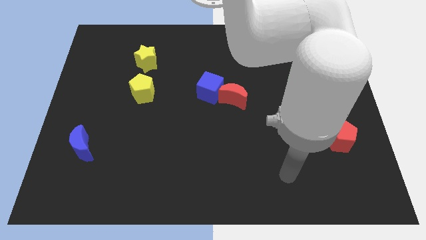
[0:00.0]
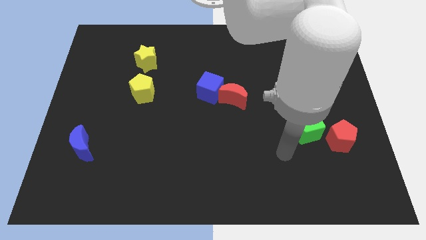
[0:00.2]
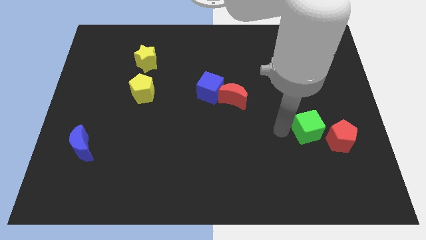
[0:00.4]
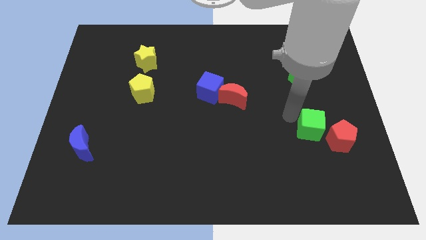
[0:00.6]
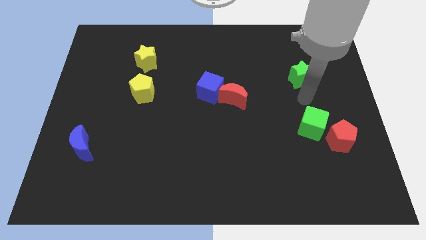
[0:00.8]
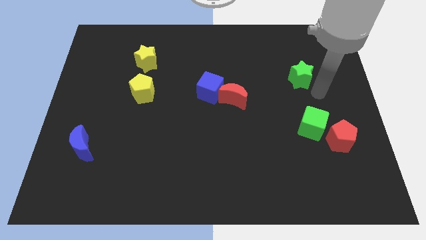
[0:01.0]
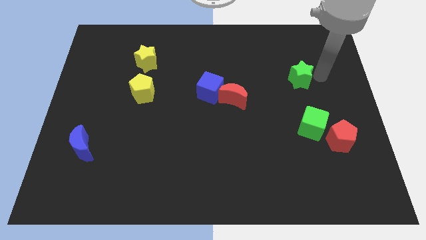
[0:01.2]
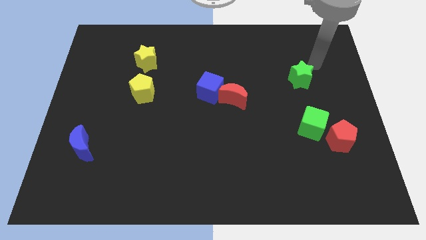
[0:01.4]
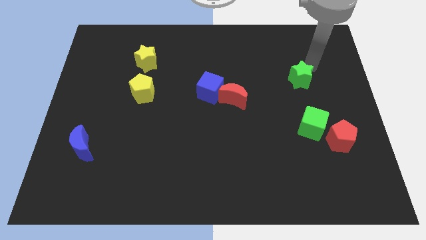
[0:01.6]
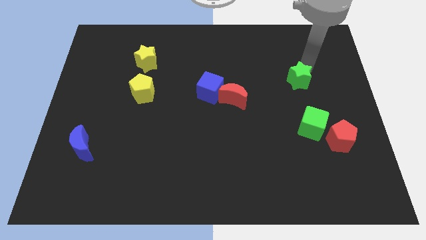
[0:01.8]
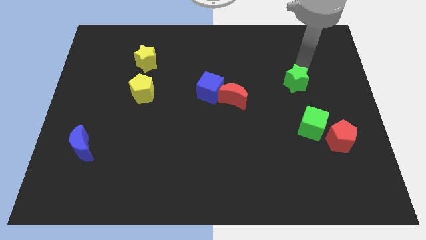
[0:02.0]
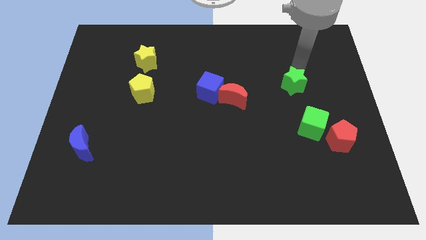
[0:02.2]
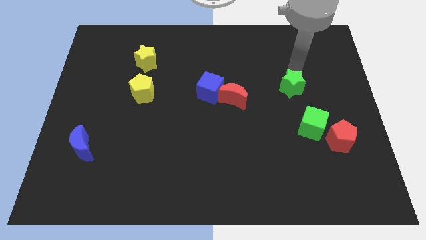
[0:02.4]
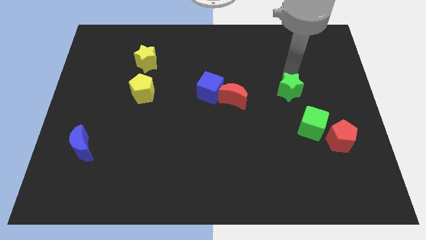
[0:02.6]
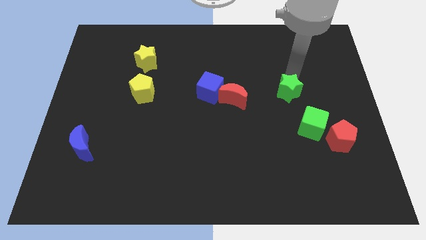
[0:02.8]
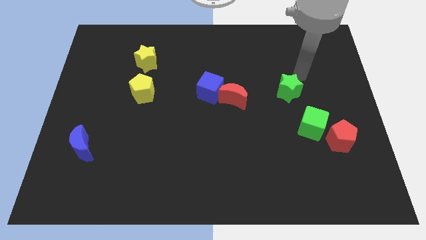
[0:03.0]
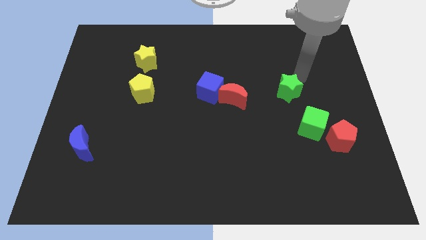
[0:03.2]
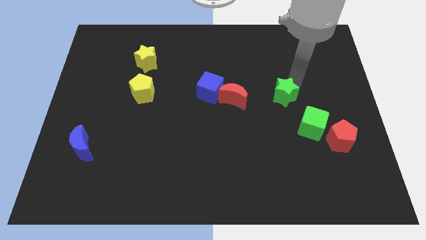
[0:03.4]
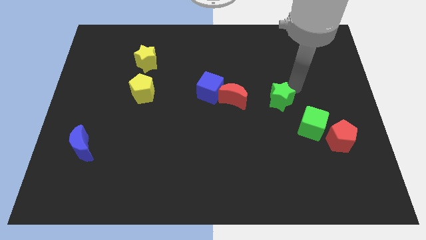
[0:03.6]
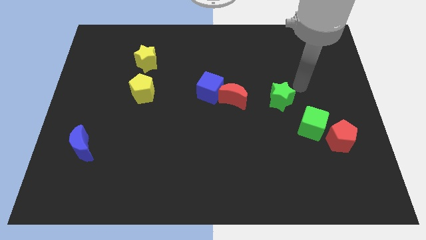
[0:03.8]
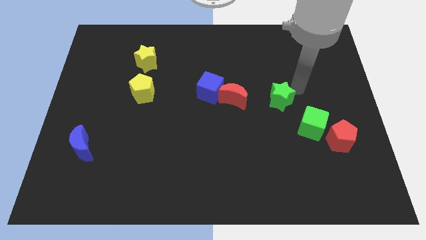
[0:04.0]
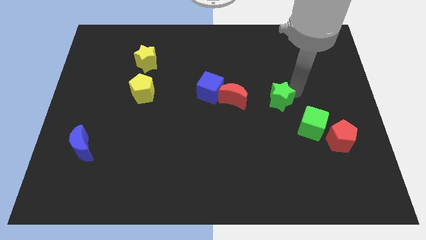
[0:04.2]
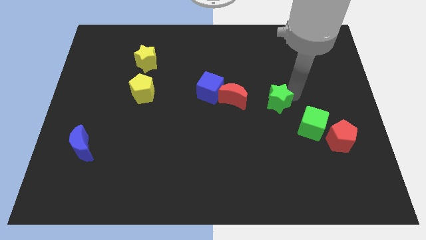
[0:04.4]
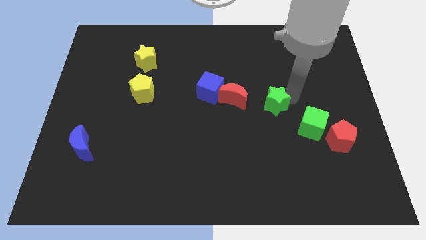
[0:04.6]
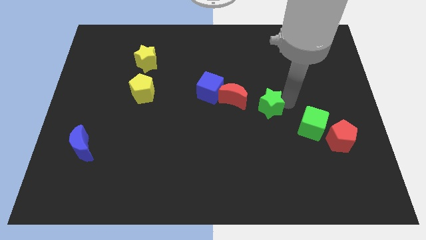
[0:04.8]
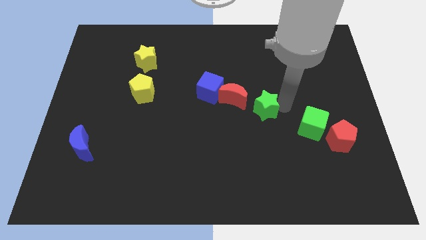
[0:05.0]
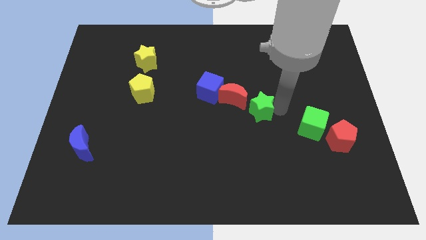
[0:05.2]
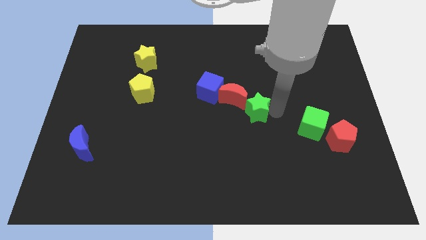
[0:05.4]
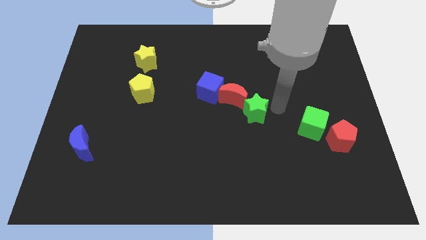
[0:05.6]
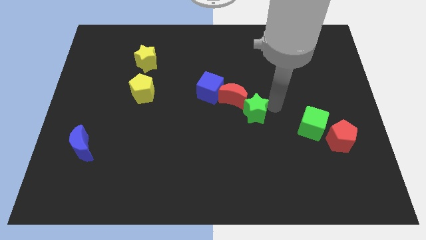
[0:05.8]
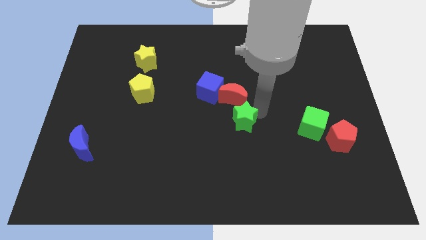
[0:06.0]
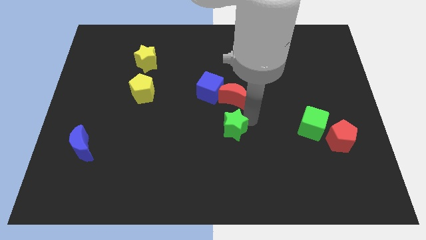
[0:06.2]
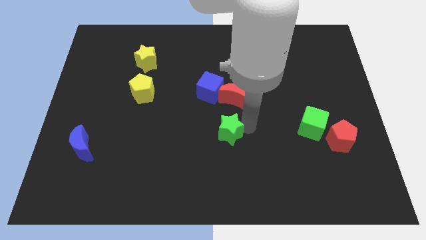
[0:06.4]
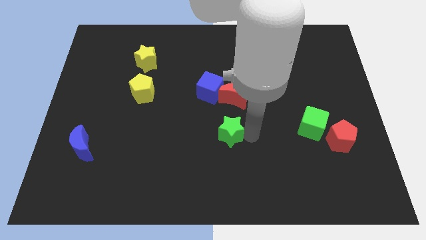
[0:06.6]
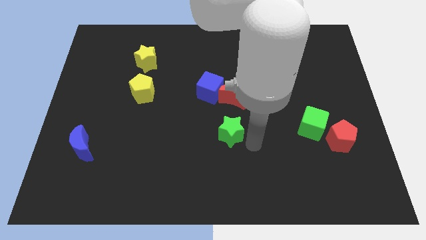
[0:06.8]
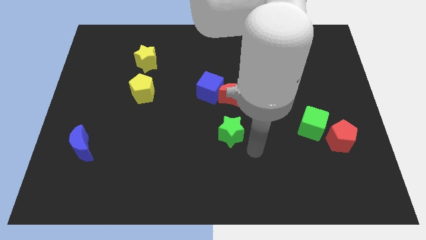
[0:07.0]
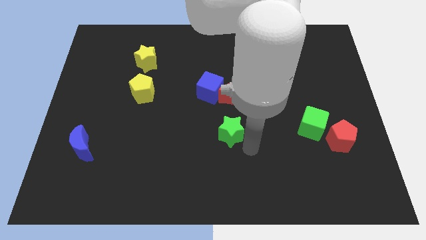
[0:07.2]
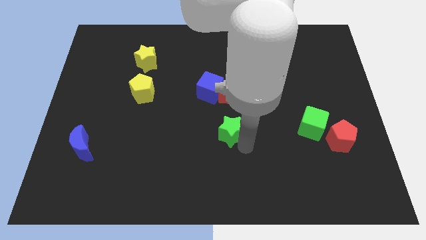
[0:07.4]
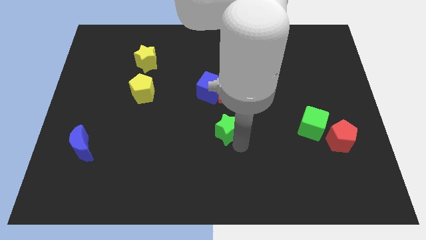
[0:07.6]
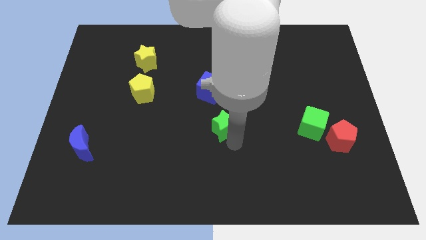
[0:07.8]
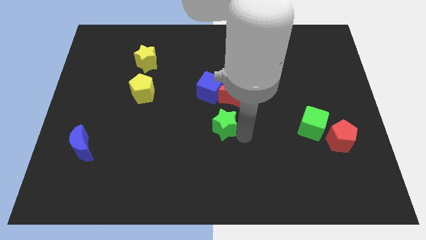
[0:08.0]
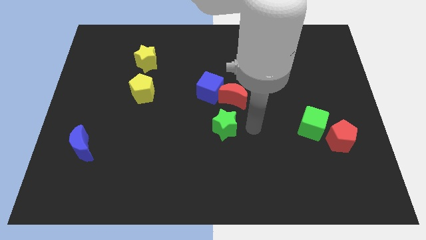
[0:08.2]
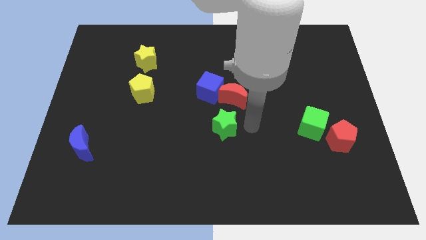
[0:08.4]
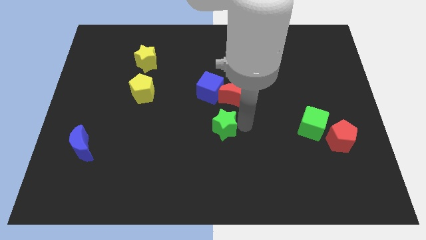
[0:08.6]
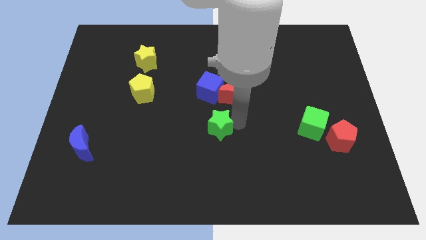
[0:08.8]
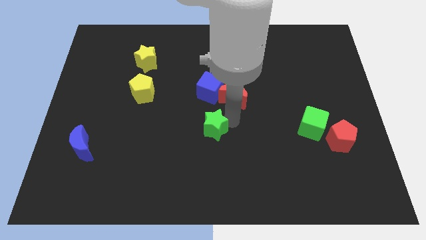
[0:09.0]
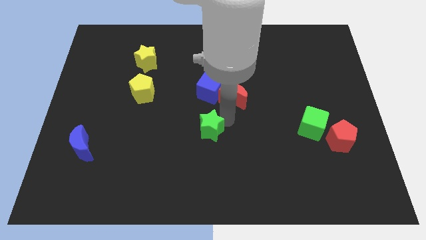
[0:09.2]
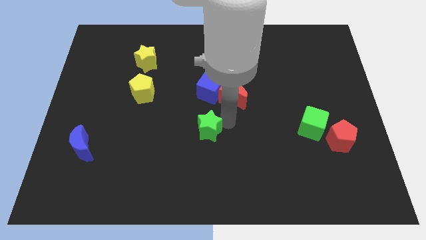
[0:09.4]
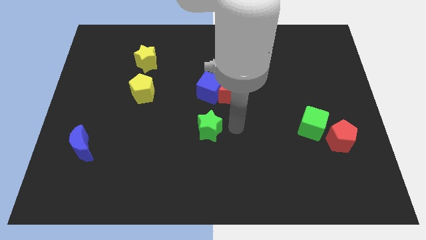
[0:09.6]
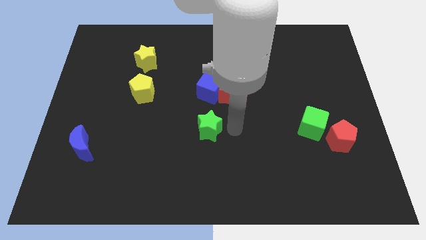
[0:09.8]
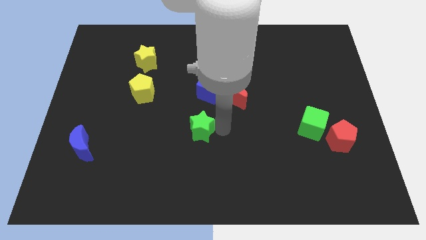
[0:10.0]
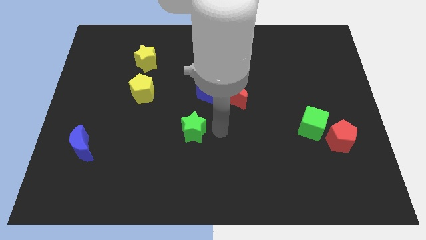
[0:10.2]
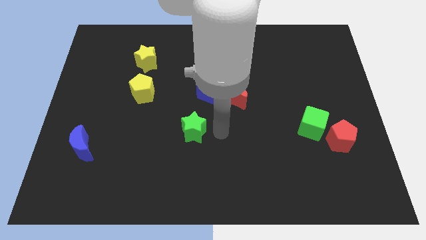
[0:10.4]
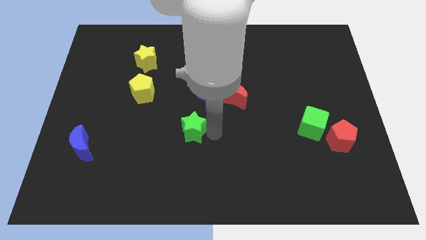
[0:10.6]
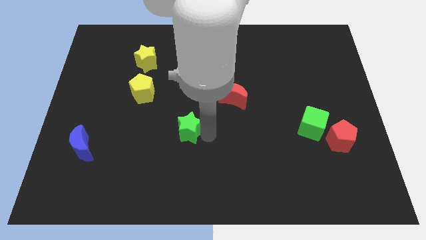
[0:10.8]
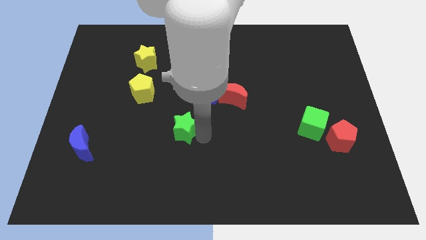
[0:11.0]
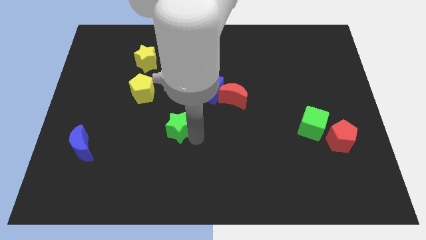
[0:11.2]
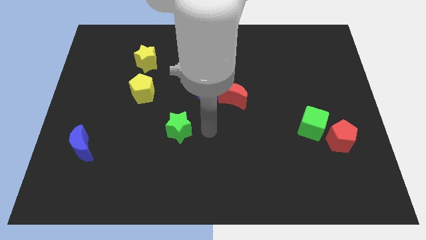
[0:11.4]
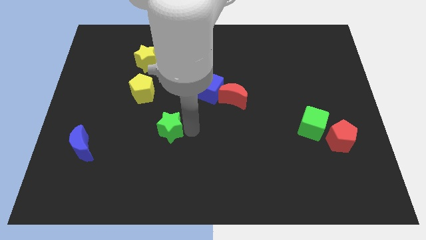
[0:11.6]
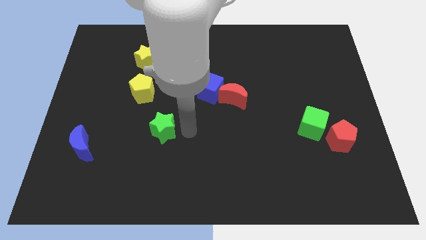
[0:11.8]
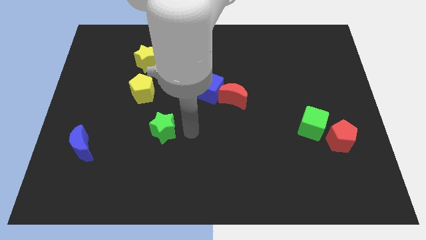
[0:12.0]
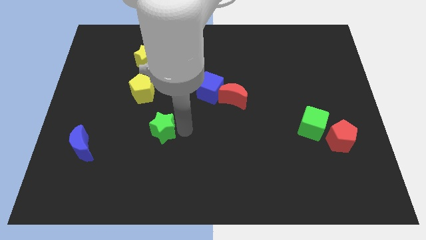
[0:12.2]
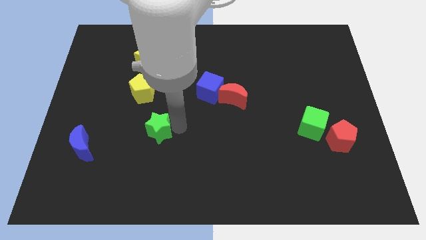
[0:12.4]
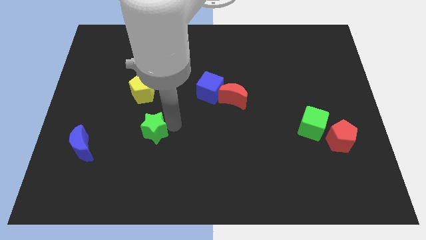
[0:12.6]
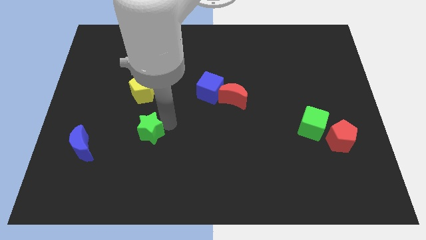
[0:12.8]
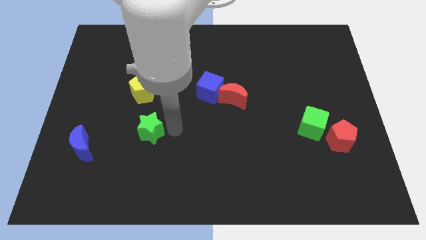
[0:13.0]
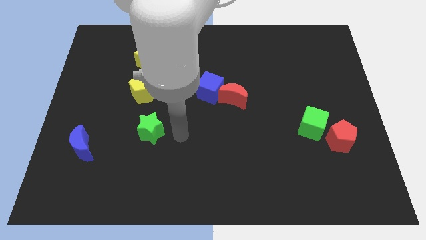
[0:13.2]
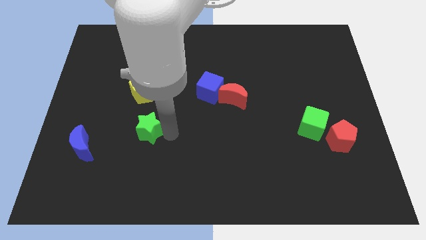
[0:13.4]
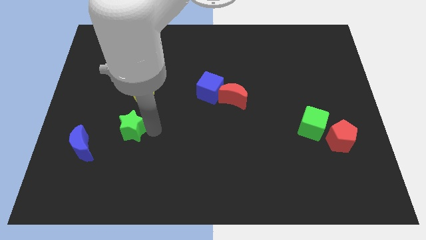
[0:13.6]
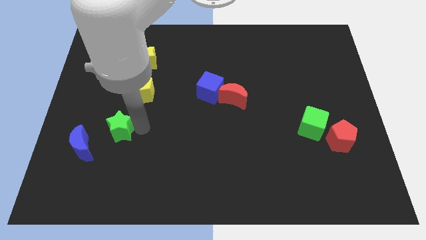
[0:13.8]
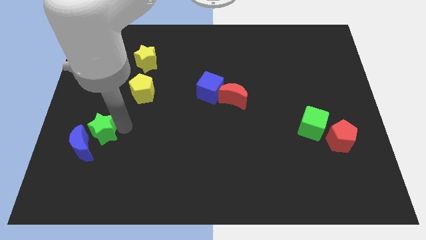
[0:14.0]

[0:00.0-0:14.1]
slide the green star to the blue moon

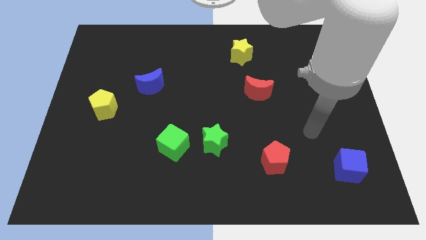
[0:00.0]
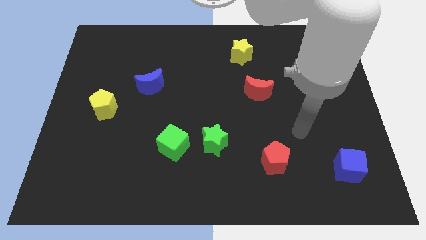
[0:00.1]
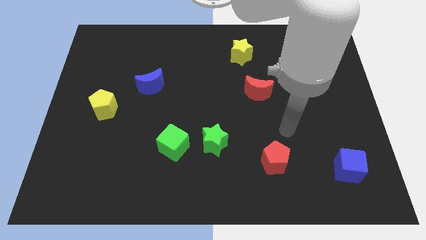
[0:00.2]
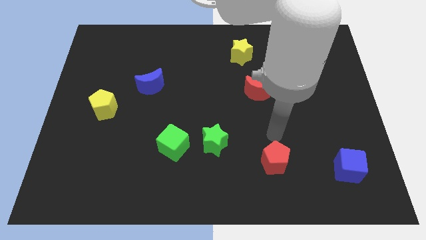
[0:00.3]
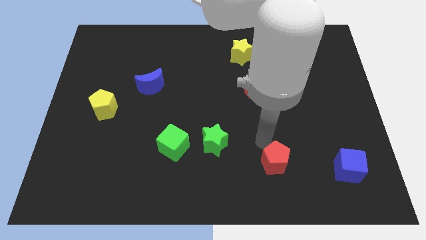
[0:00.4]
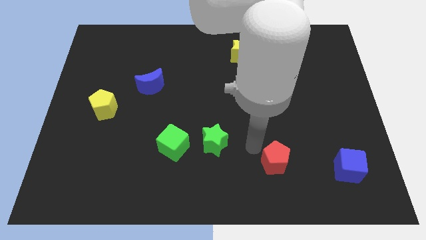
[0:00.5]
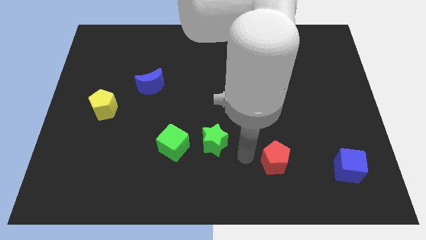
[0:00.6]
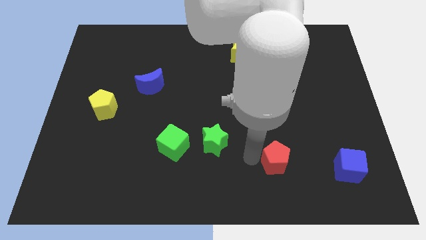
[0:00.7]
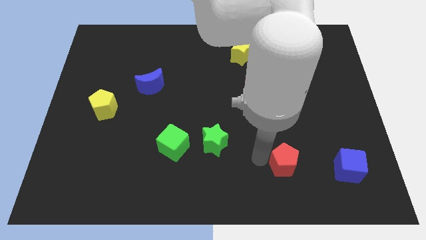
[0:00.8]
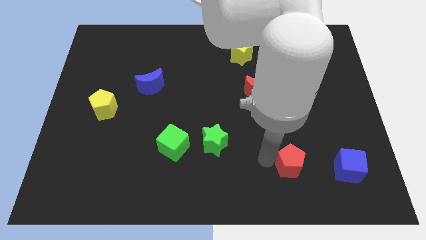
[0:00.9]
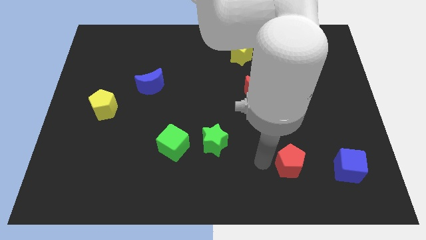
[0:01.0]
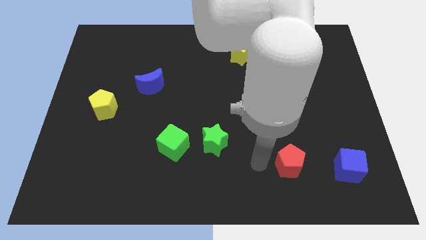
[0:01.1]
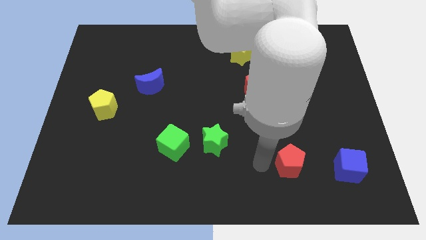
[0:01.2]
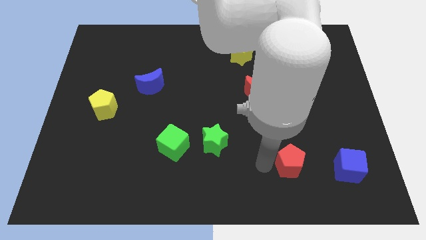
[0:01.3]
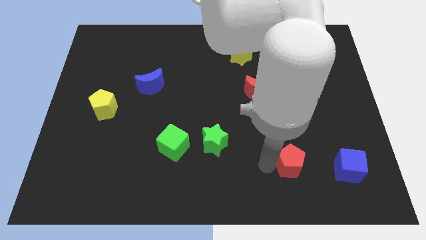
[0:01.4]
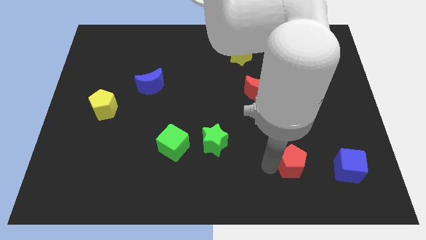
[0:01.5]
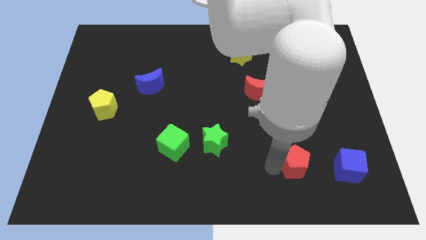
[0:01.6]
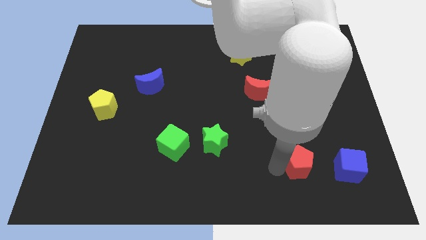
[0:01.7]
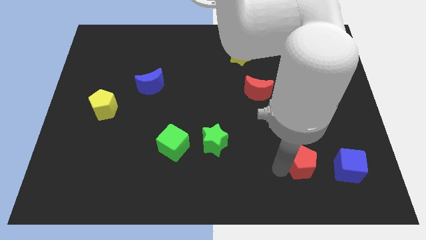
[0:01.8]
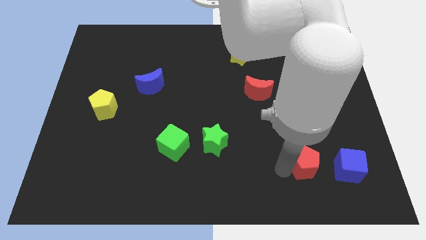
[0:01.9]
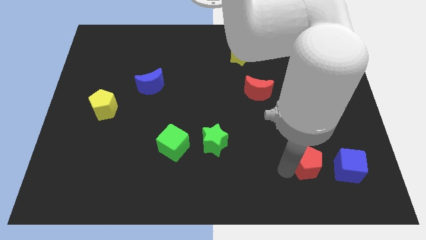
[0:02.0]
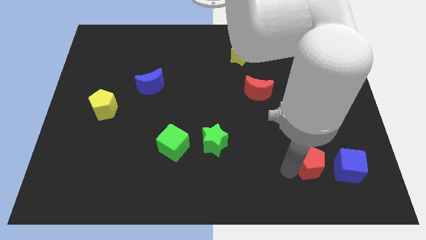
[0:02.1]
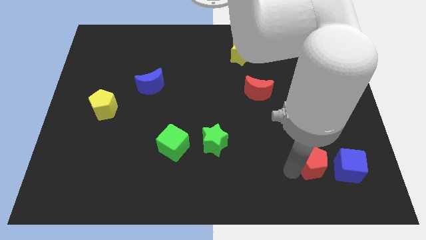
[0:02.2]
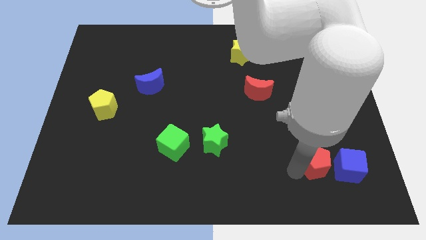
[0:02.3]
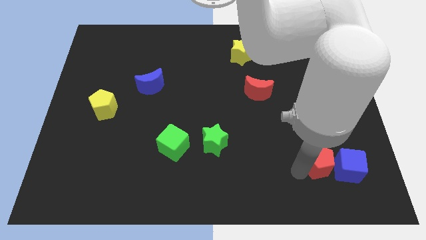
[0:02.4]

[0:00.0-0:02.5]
slide the red pentagon to the blue cube
